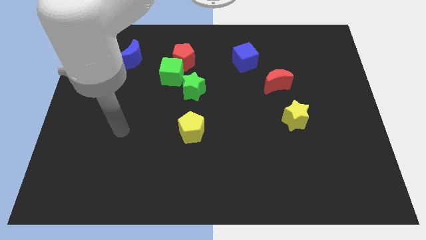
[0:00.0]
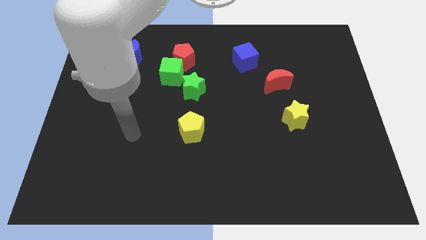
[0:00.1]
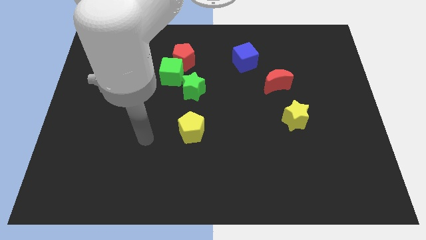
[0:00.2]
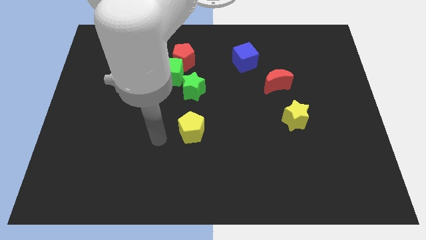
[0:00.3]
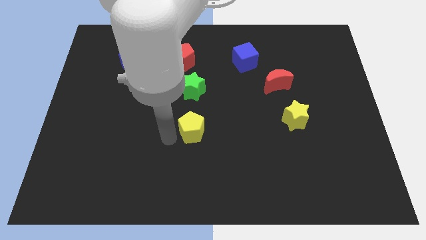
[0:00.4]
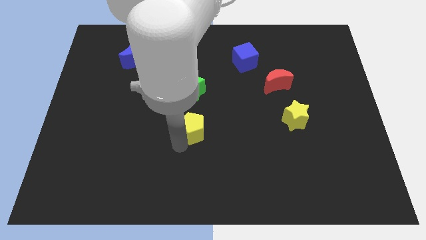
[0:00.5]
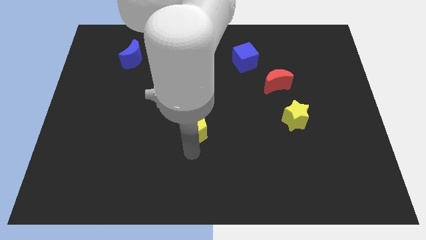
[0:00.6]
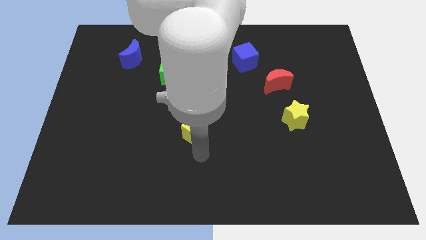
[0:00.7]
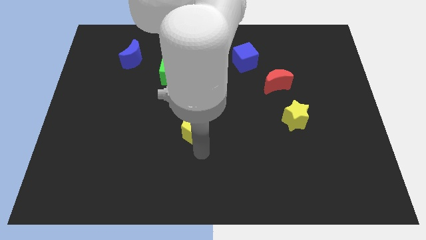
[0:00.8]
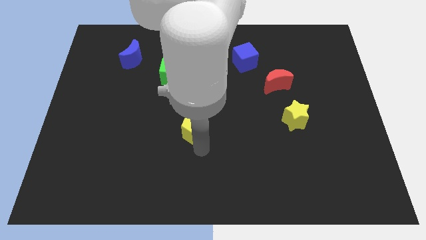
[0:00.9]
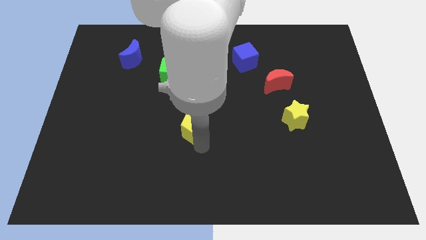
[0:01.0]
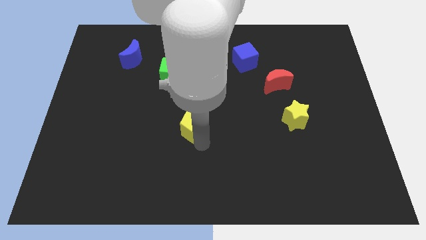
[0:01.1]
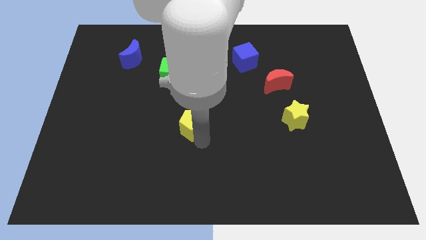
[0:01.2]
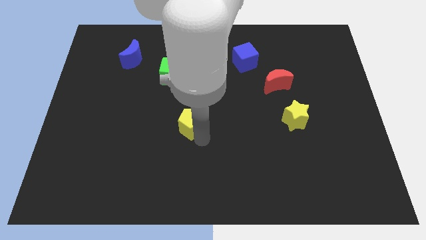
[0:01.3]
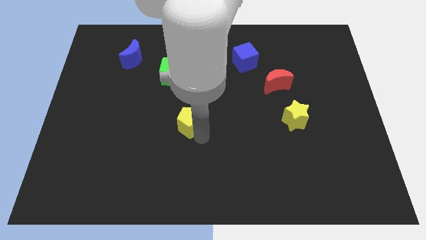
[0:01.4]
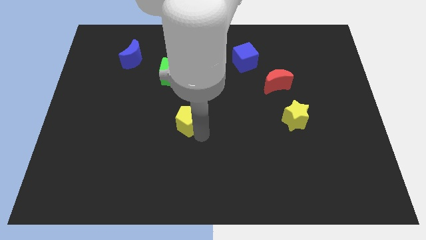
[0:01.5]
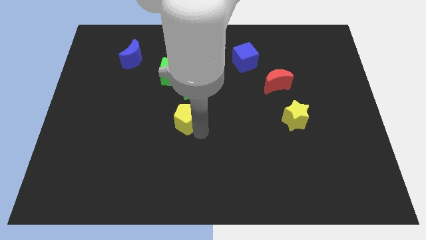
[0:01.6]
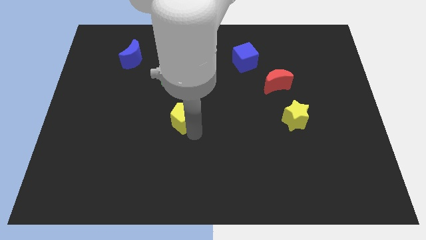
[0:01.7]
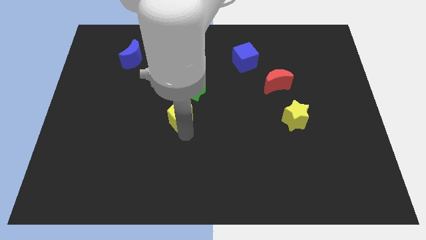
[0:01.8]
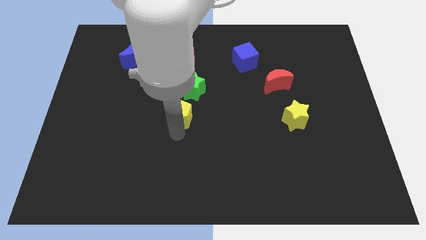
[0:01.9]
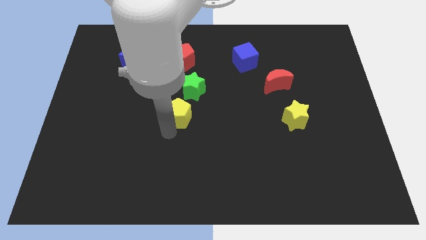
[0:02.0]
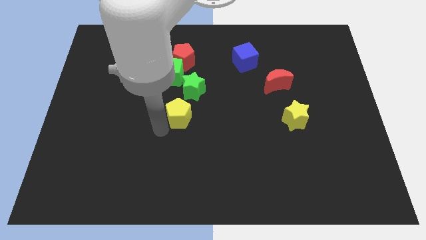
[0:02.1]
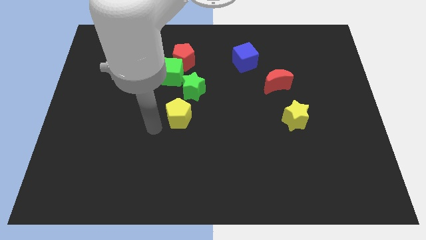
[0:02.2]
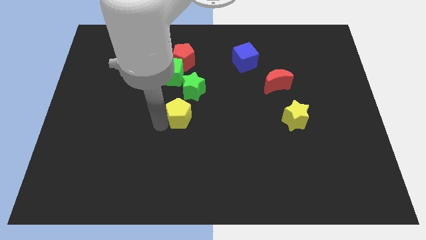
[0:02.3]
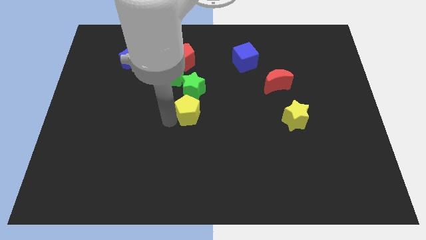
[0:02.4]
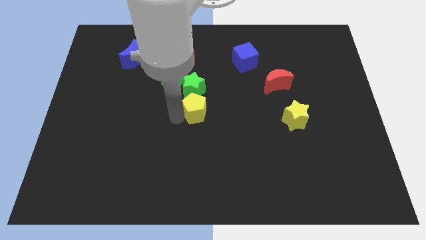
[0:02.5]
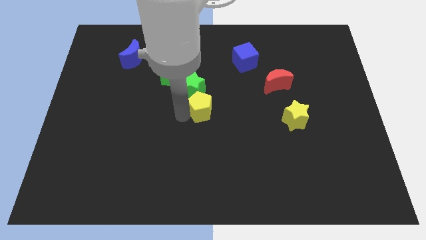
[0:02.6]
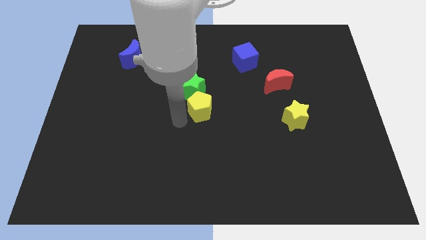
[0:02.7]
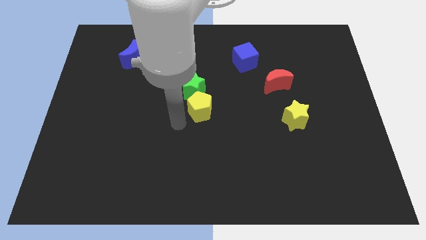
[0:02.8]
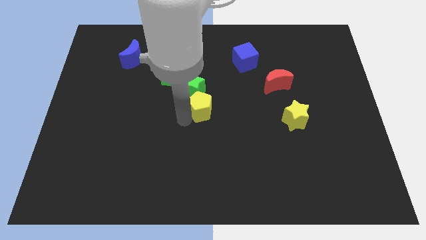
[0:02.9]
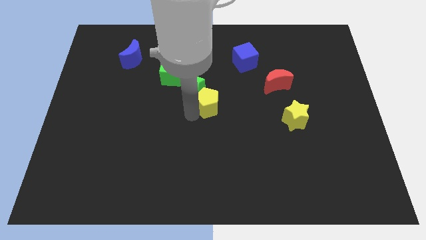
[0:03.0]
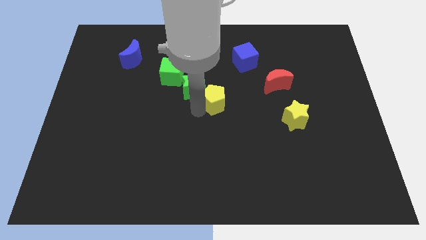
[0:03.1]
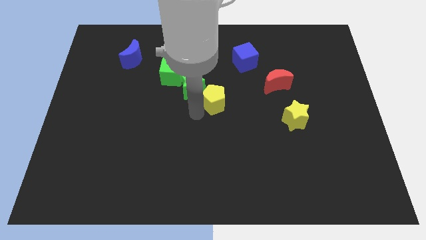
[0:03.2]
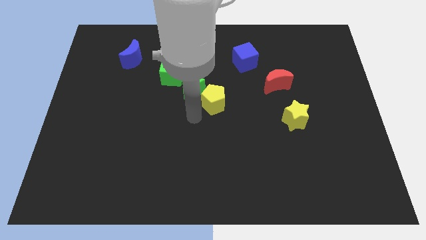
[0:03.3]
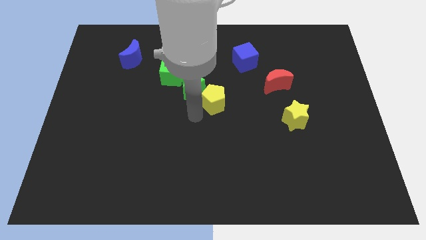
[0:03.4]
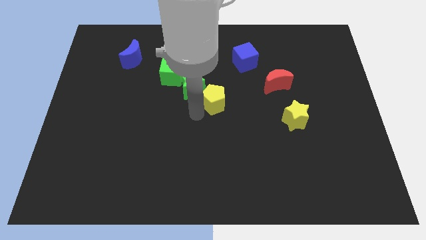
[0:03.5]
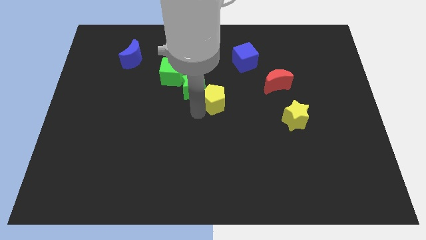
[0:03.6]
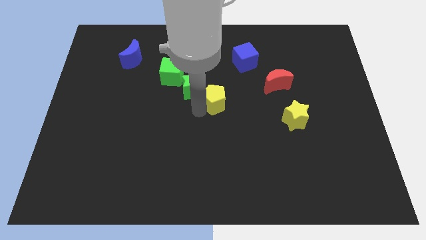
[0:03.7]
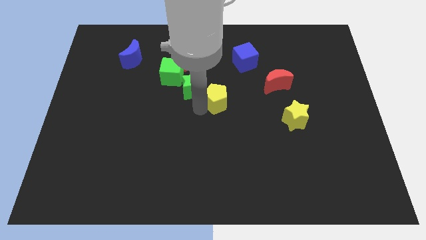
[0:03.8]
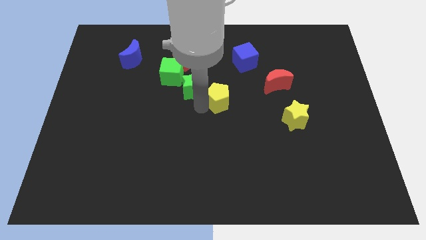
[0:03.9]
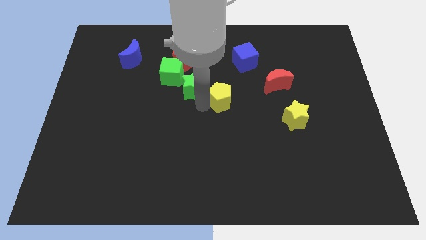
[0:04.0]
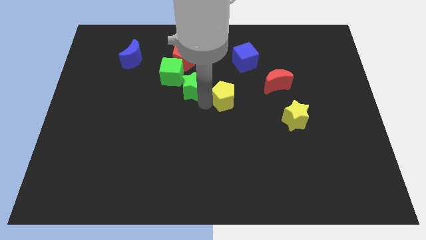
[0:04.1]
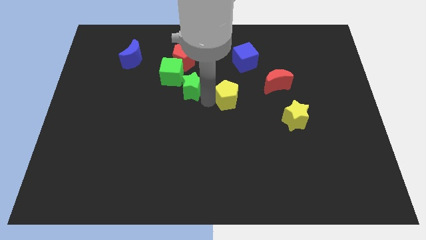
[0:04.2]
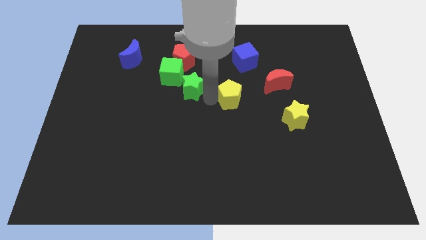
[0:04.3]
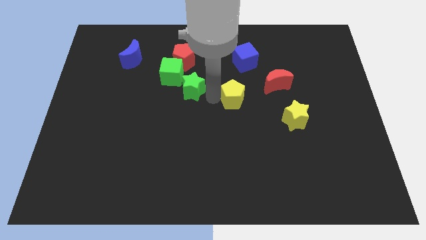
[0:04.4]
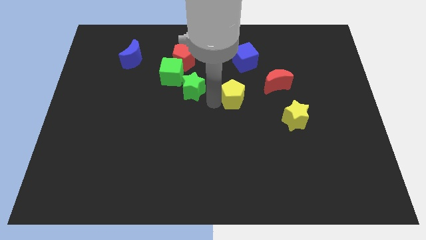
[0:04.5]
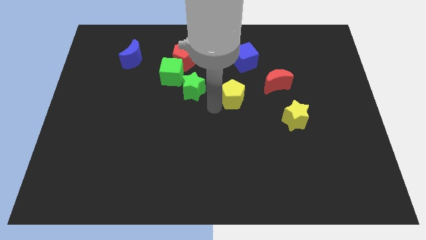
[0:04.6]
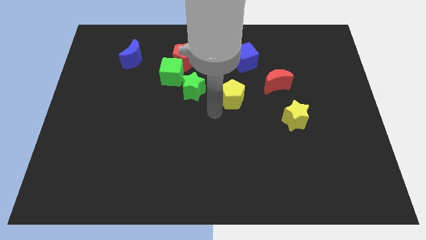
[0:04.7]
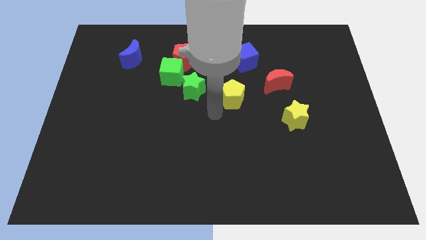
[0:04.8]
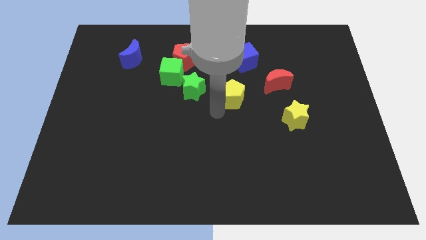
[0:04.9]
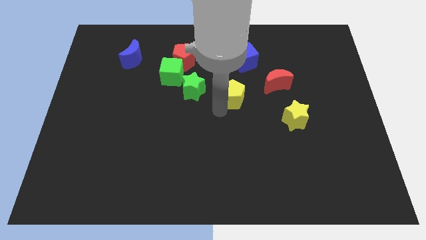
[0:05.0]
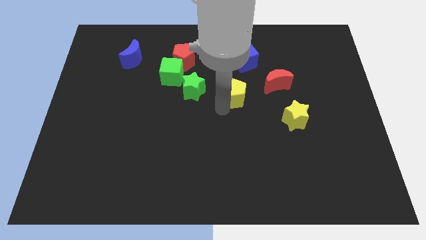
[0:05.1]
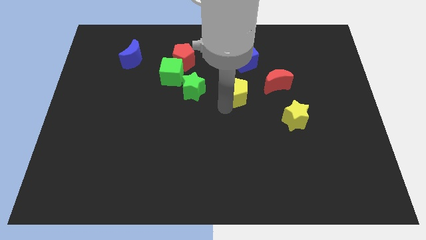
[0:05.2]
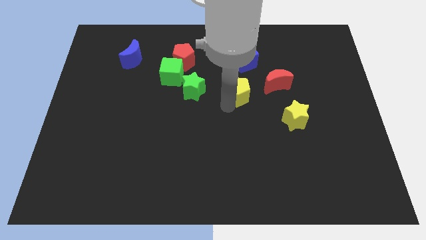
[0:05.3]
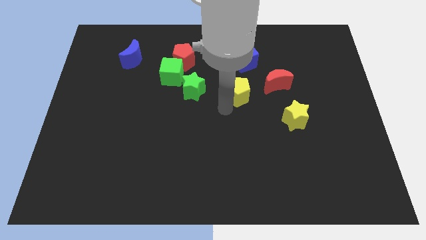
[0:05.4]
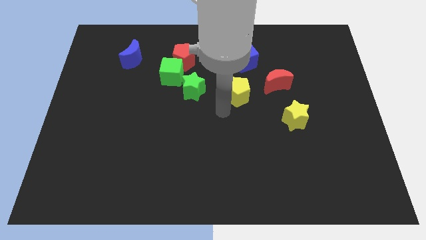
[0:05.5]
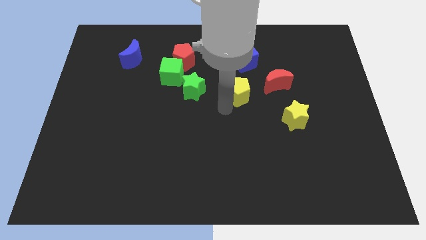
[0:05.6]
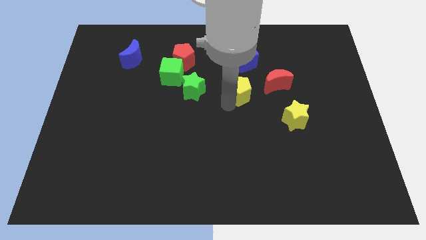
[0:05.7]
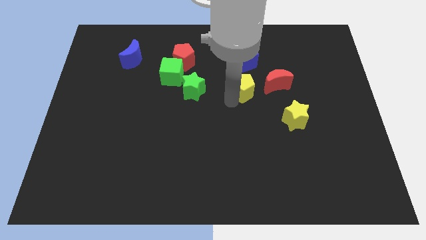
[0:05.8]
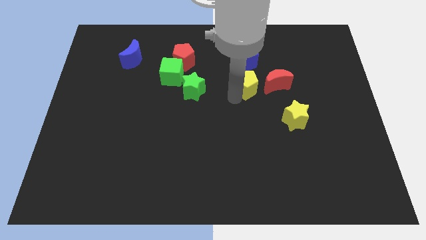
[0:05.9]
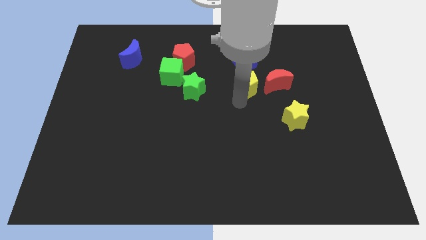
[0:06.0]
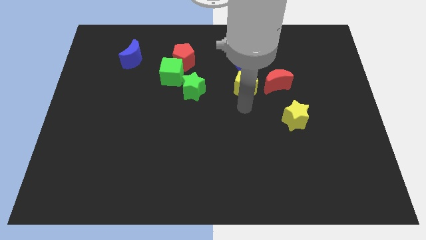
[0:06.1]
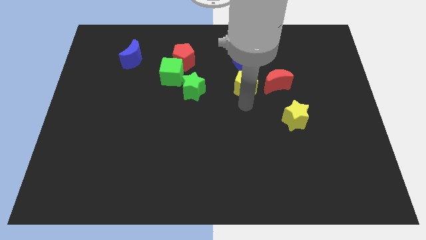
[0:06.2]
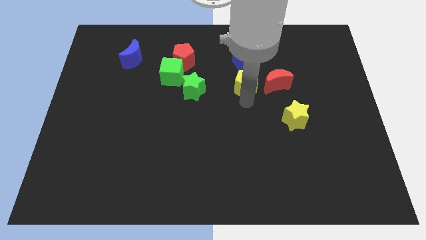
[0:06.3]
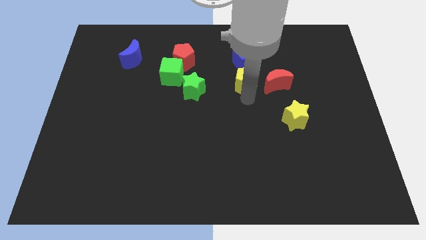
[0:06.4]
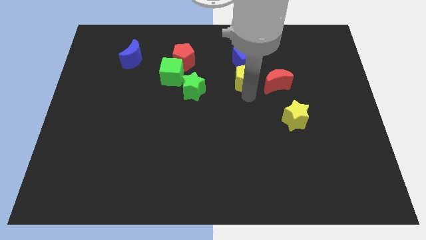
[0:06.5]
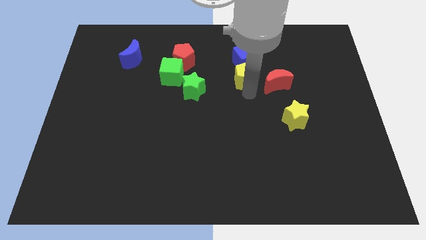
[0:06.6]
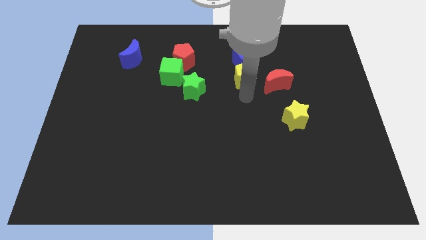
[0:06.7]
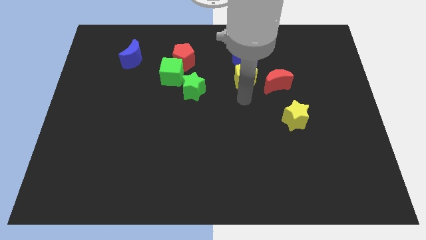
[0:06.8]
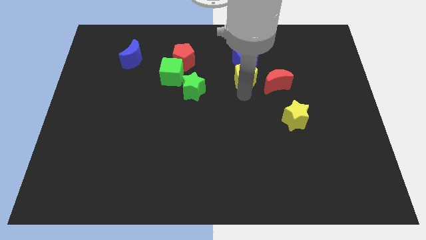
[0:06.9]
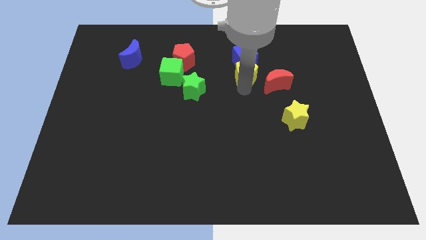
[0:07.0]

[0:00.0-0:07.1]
push the yellow pentagon close to the blue cube
